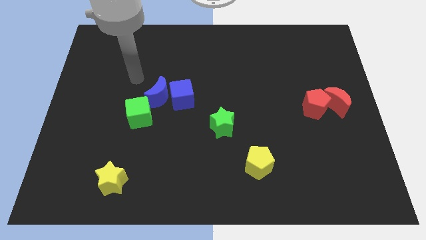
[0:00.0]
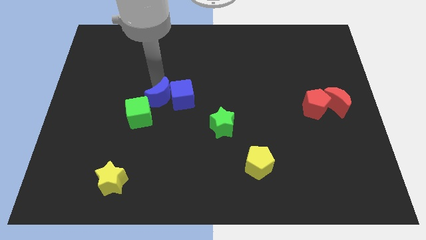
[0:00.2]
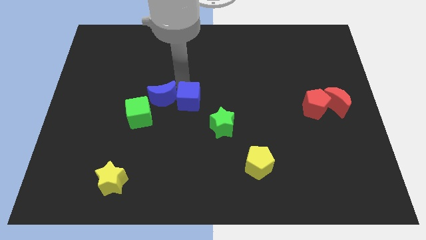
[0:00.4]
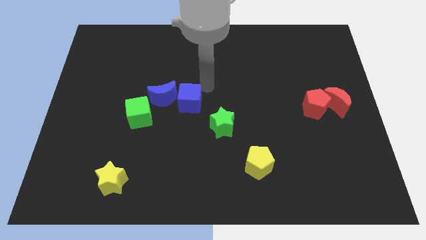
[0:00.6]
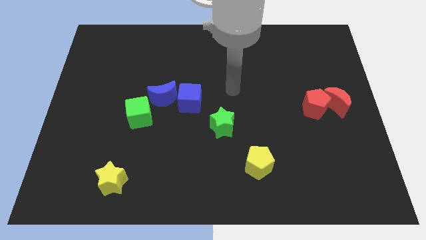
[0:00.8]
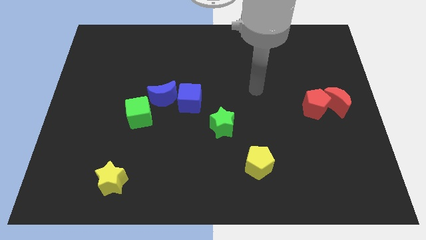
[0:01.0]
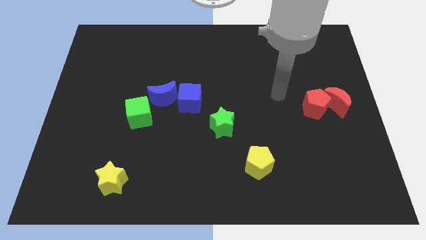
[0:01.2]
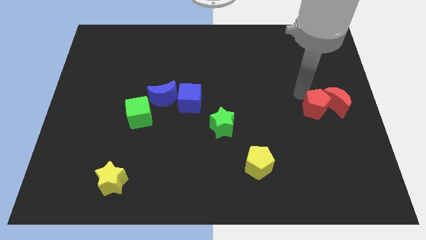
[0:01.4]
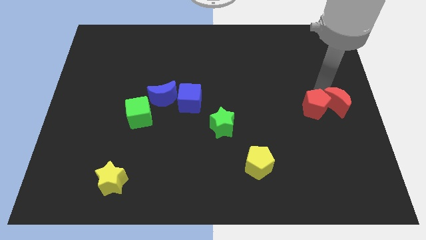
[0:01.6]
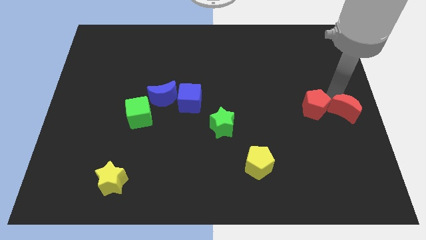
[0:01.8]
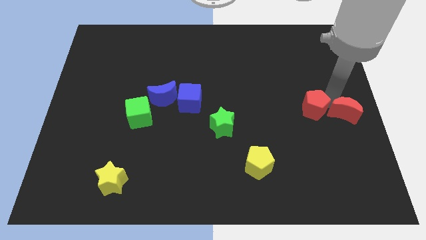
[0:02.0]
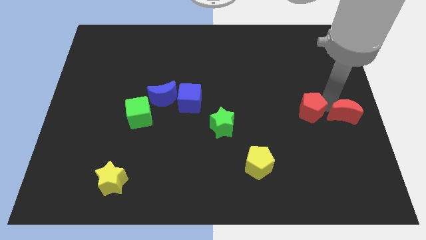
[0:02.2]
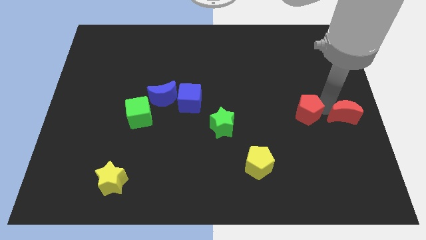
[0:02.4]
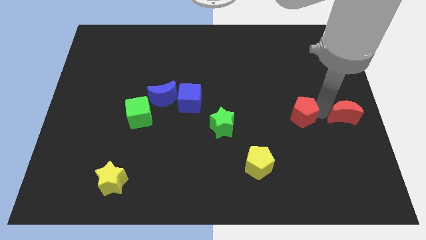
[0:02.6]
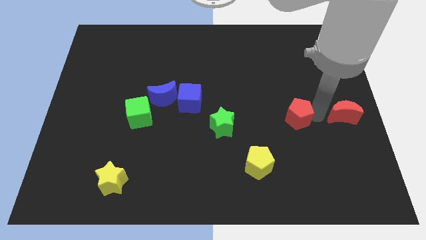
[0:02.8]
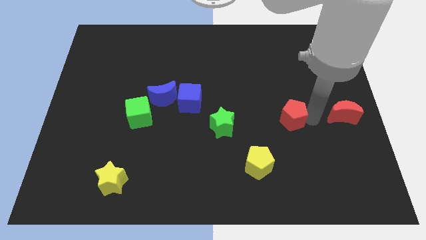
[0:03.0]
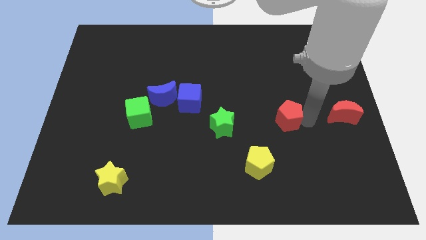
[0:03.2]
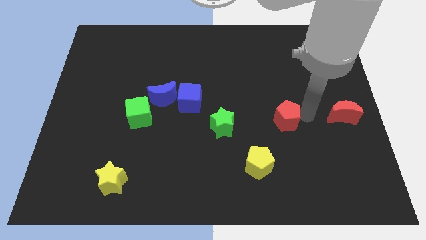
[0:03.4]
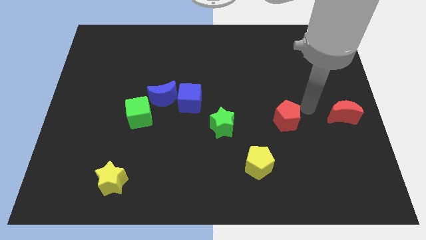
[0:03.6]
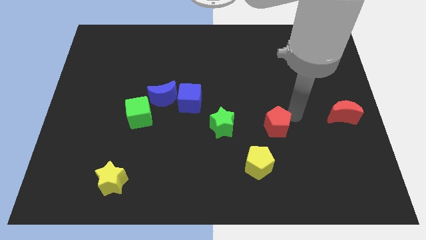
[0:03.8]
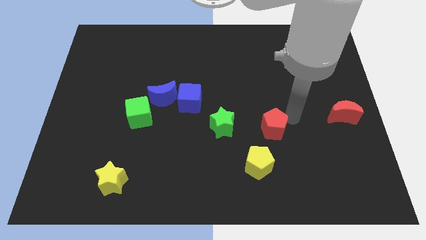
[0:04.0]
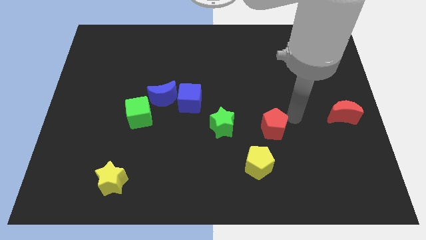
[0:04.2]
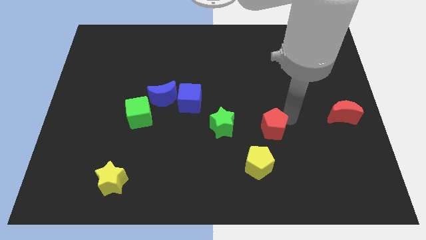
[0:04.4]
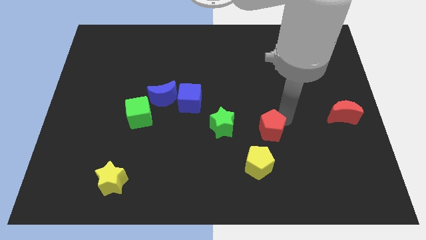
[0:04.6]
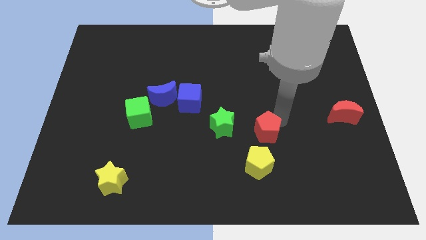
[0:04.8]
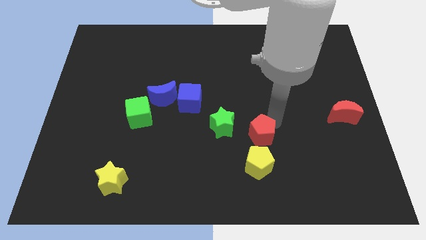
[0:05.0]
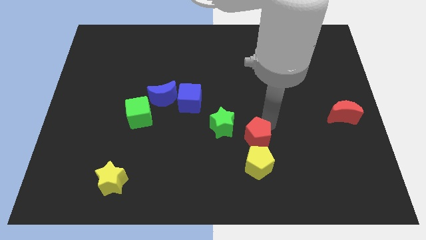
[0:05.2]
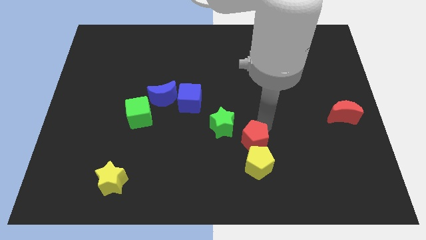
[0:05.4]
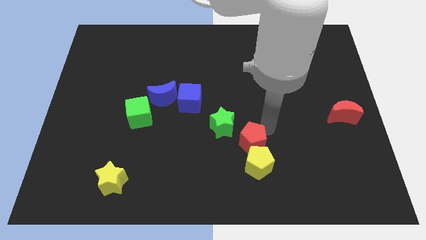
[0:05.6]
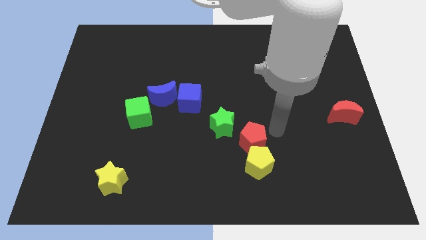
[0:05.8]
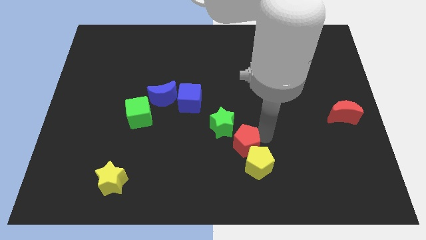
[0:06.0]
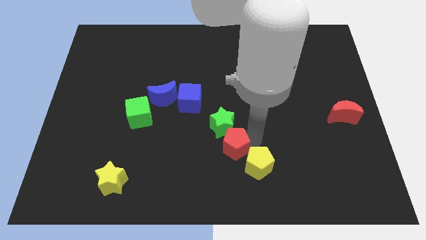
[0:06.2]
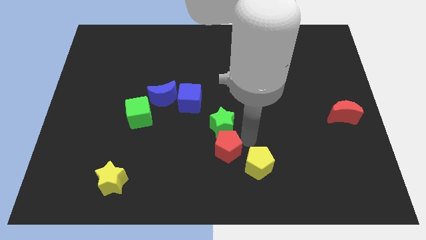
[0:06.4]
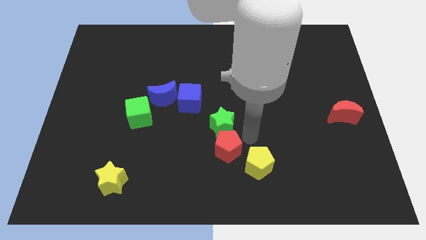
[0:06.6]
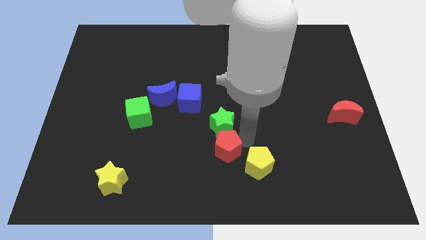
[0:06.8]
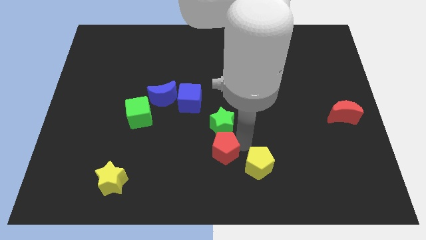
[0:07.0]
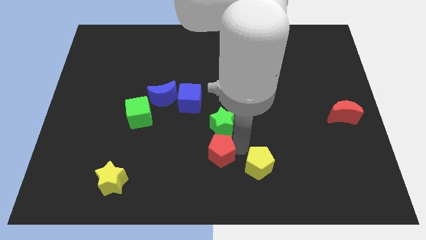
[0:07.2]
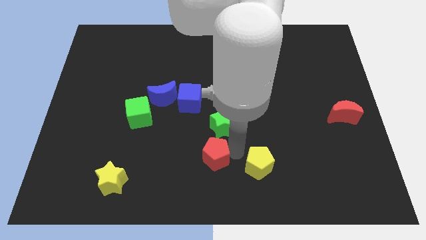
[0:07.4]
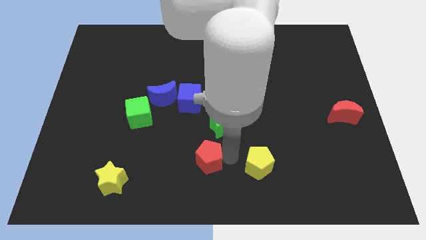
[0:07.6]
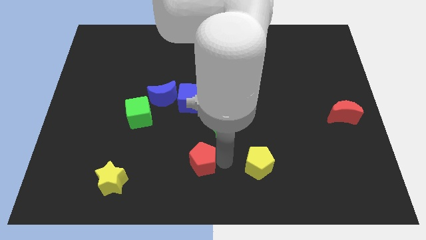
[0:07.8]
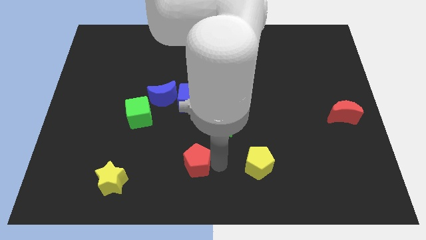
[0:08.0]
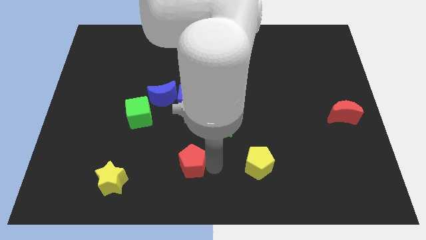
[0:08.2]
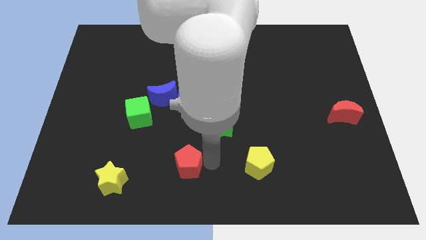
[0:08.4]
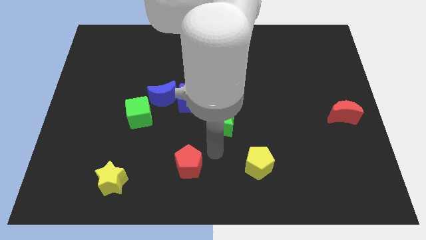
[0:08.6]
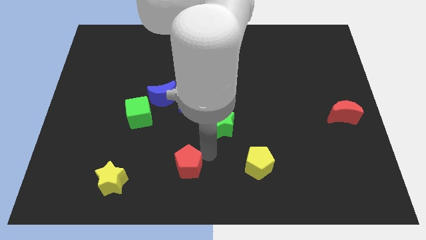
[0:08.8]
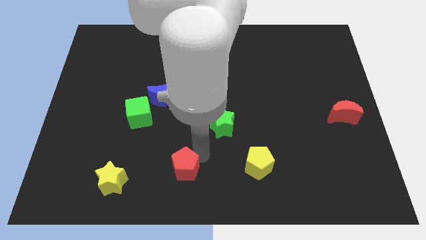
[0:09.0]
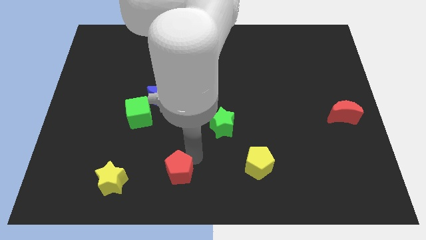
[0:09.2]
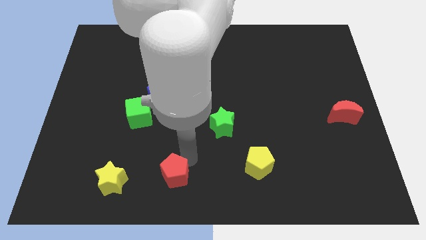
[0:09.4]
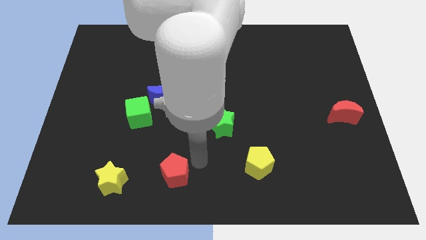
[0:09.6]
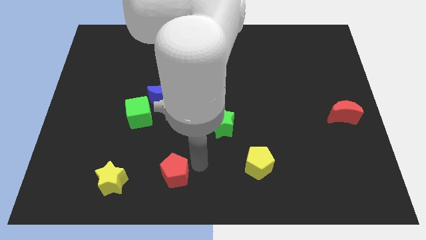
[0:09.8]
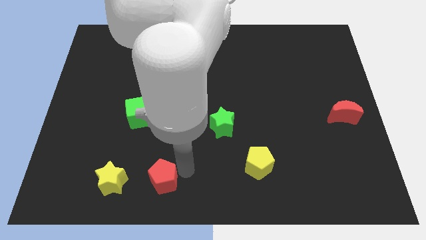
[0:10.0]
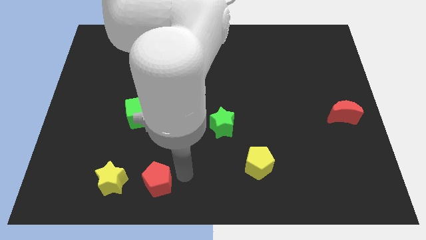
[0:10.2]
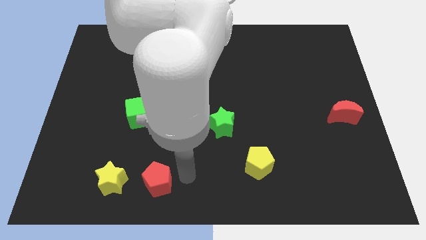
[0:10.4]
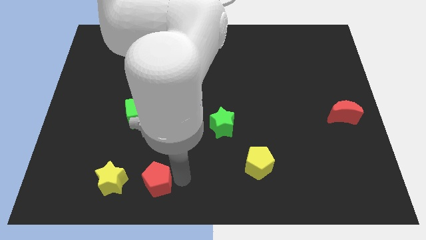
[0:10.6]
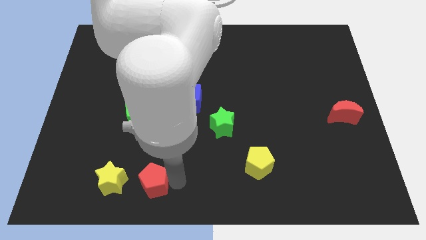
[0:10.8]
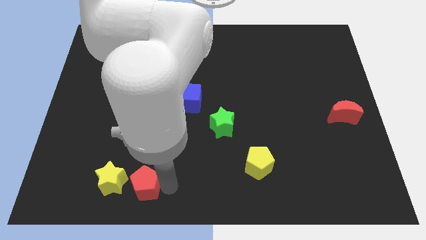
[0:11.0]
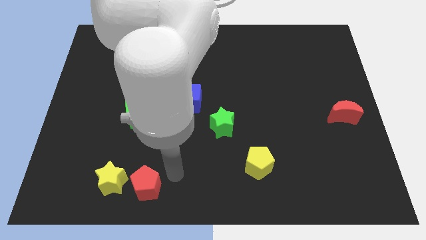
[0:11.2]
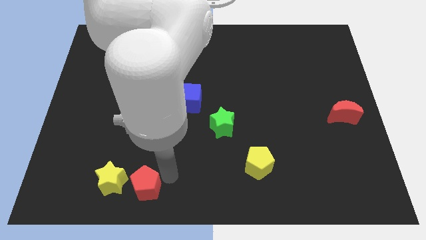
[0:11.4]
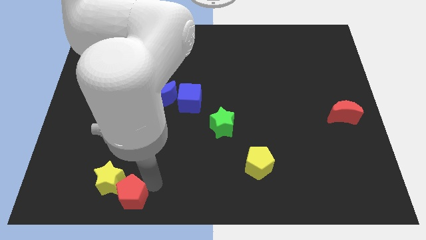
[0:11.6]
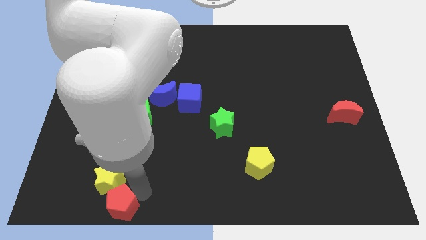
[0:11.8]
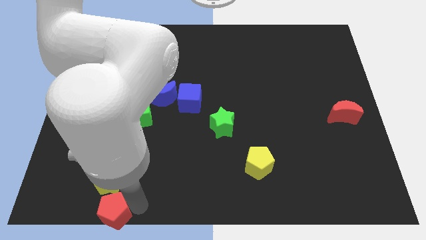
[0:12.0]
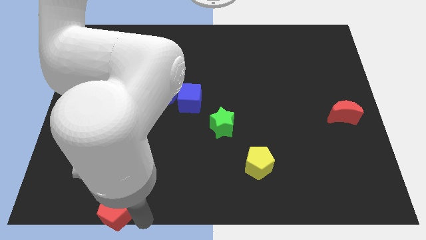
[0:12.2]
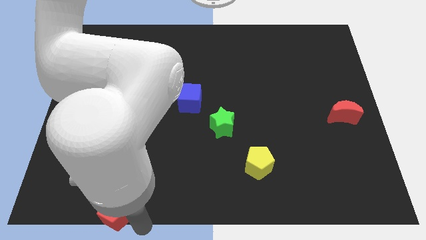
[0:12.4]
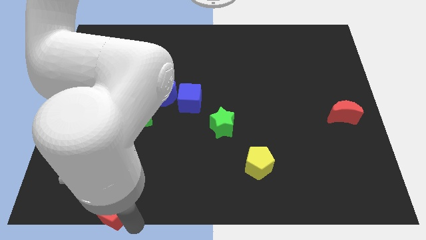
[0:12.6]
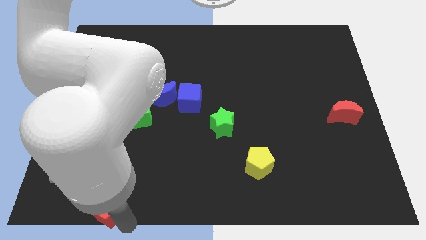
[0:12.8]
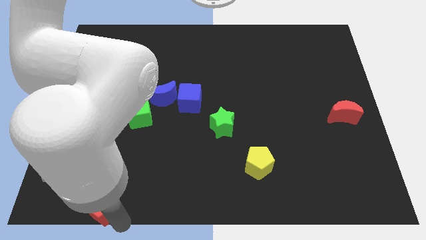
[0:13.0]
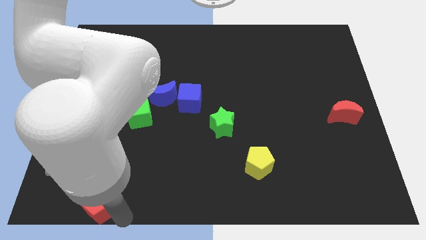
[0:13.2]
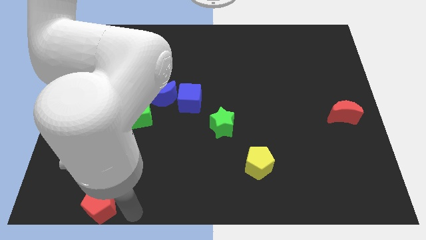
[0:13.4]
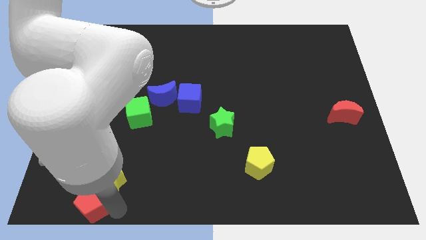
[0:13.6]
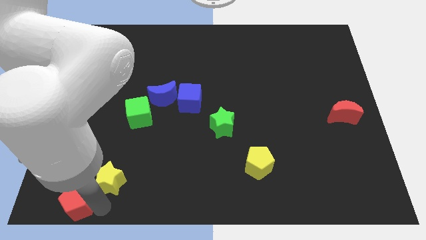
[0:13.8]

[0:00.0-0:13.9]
put the red pentagon to the lower left corner
